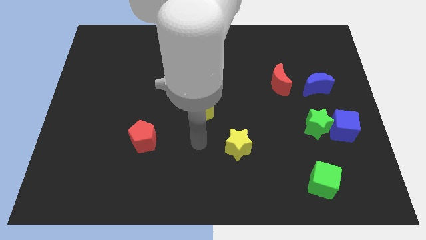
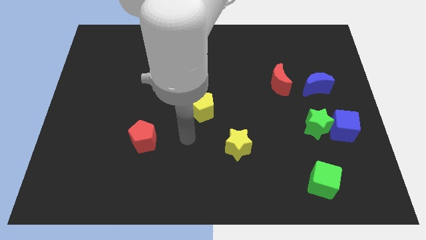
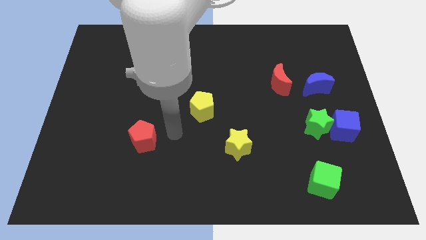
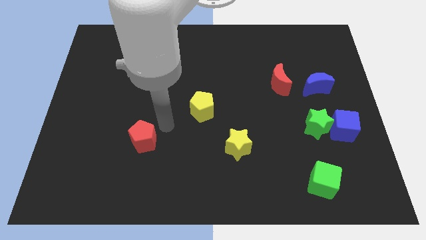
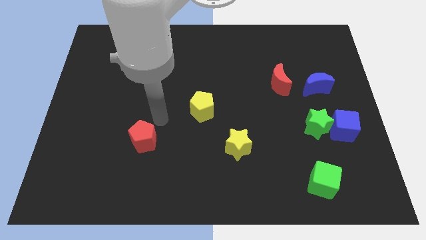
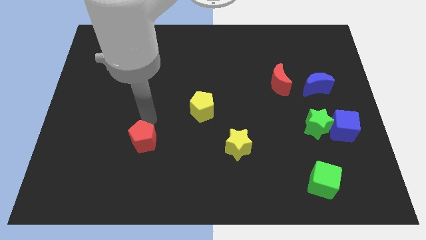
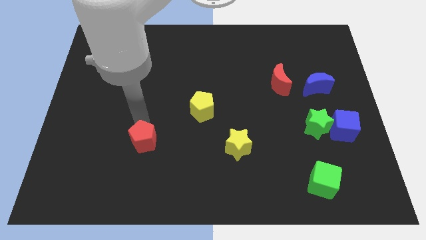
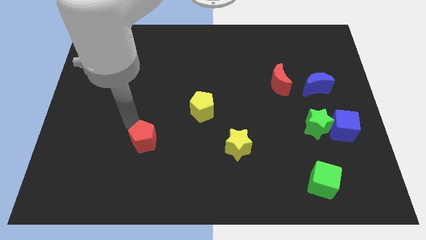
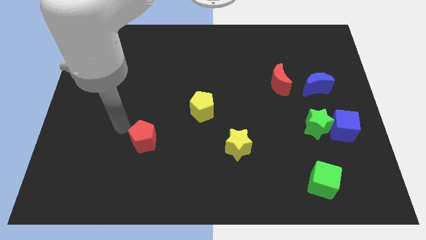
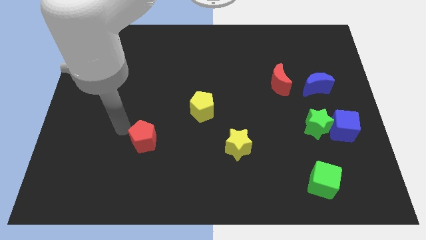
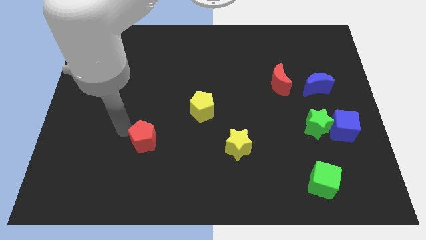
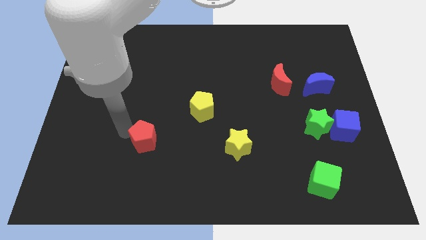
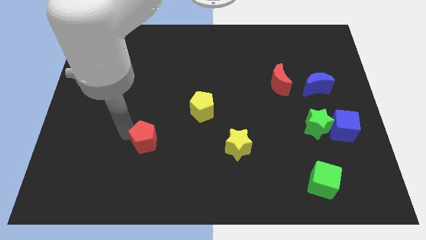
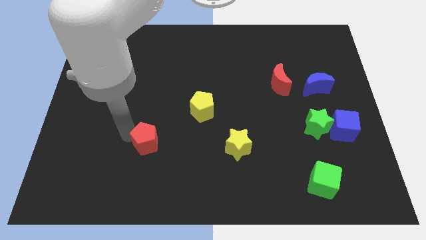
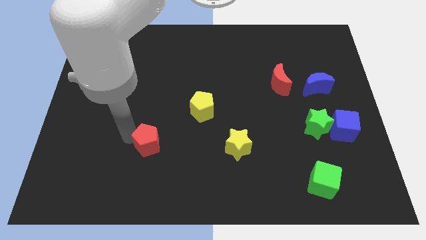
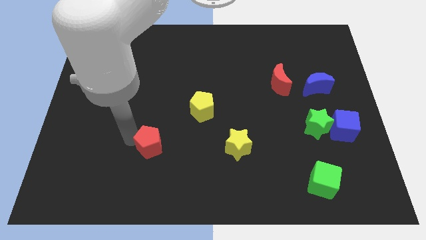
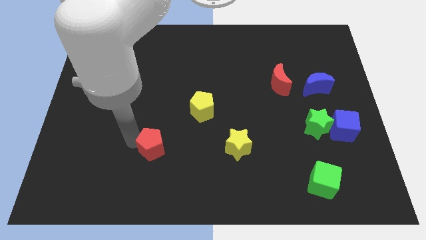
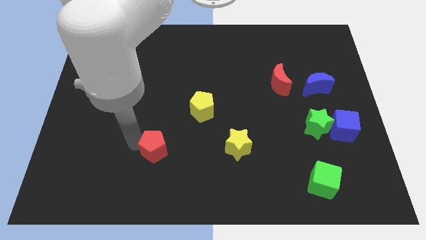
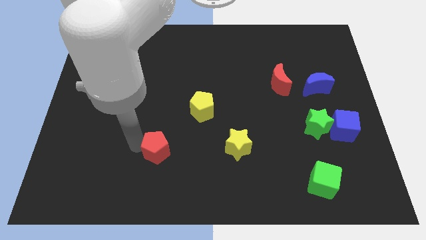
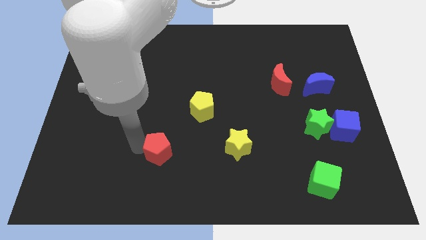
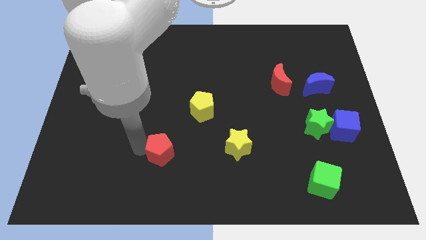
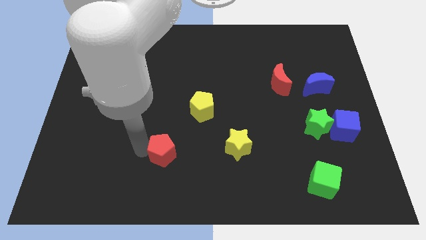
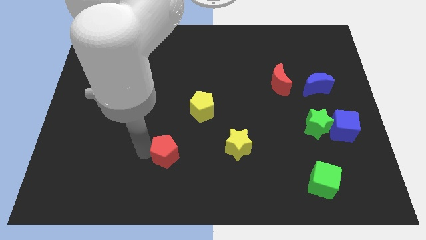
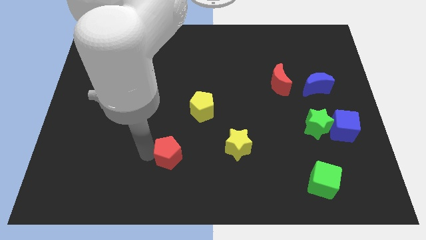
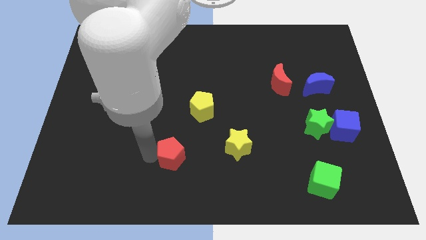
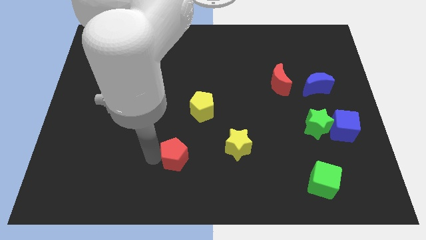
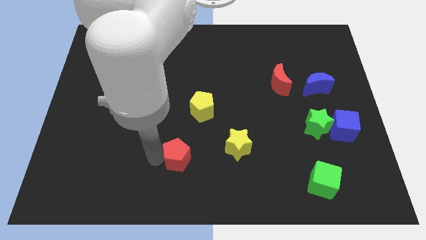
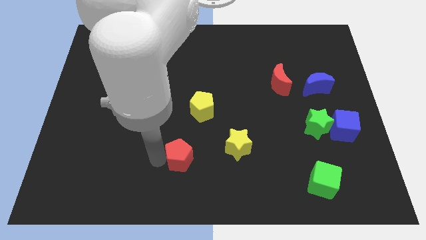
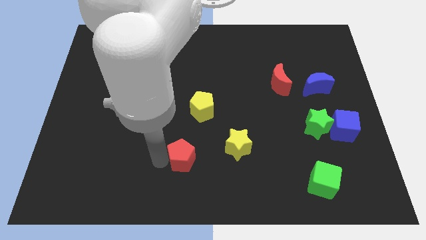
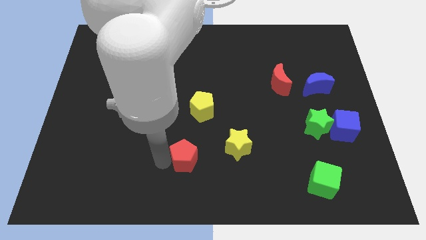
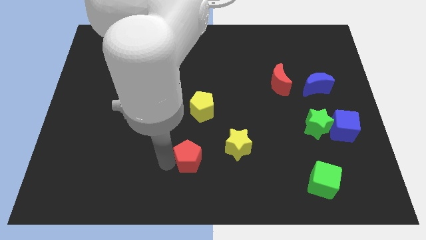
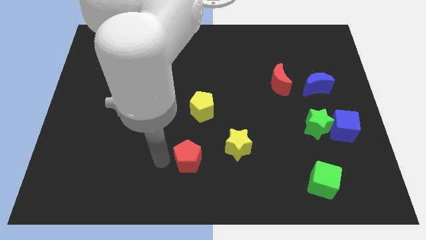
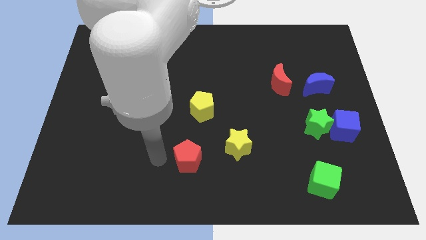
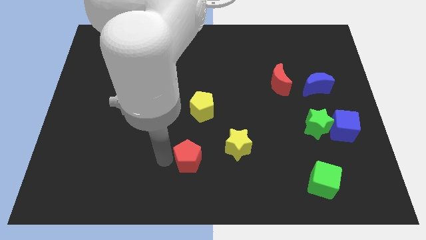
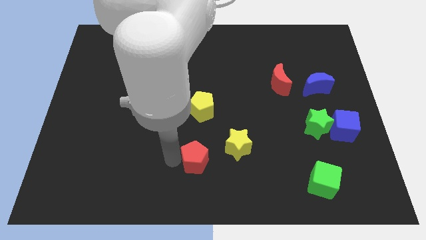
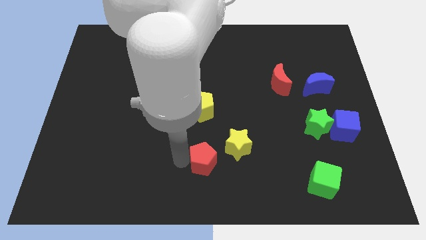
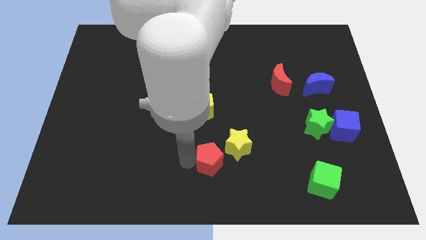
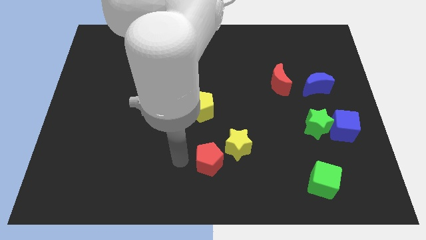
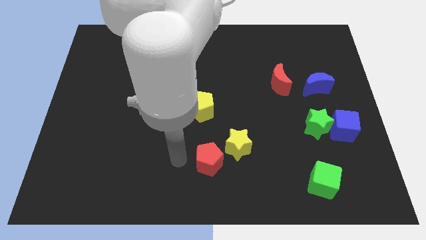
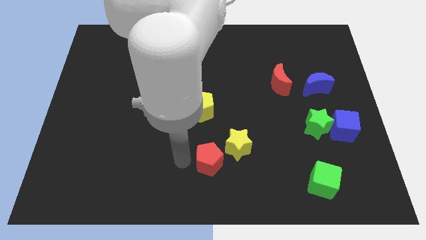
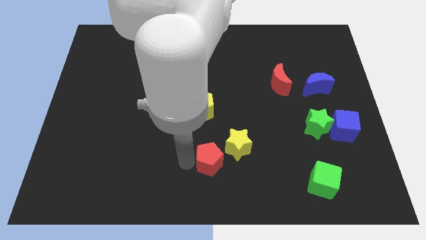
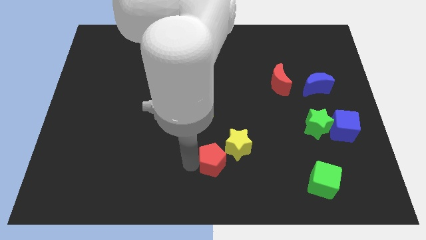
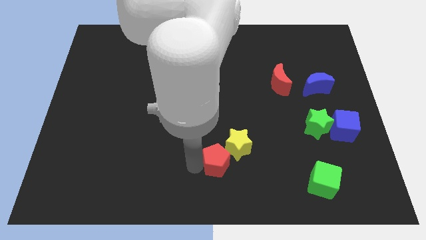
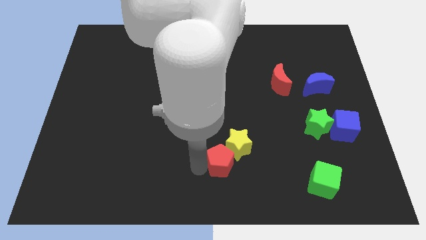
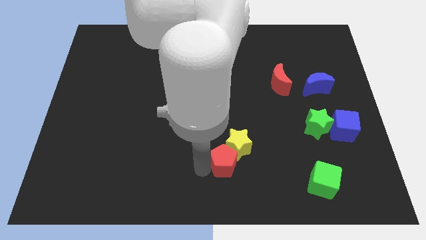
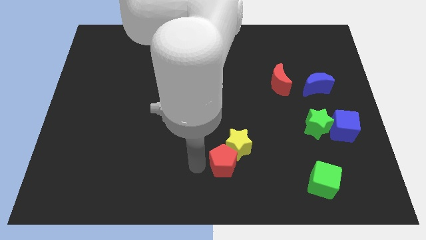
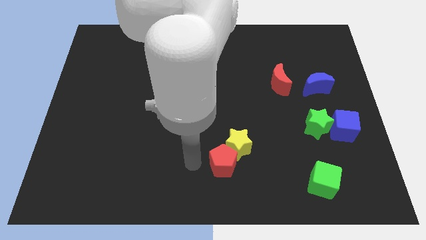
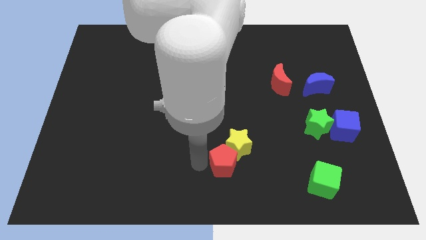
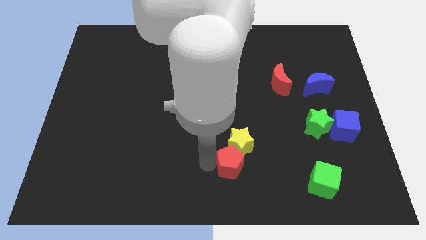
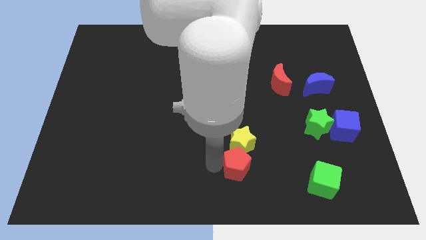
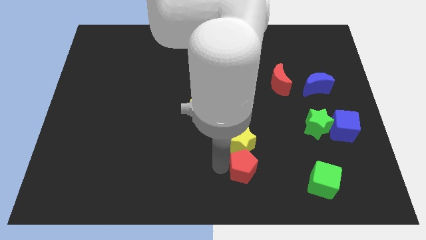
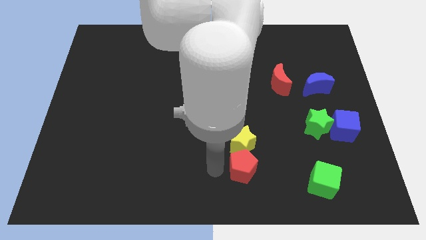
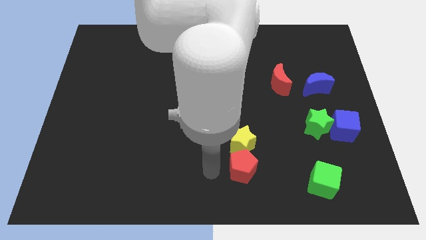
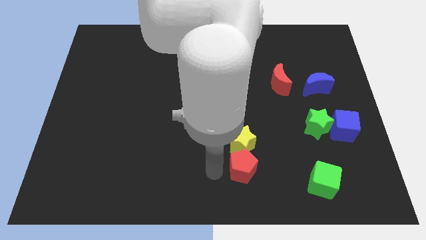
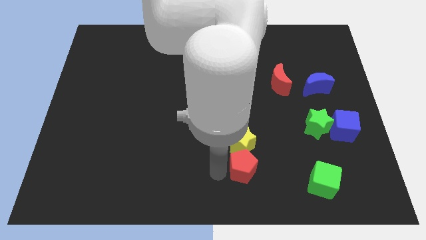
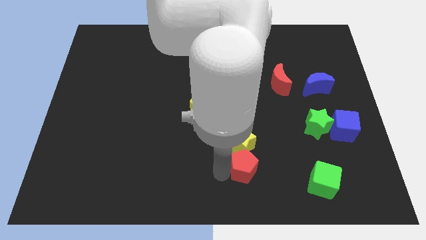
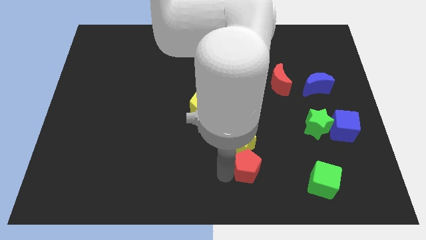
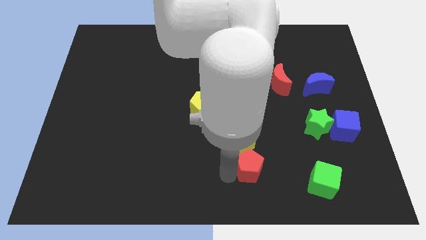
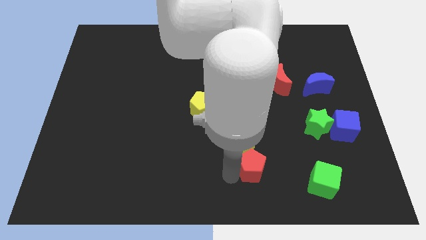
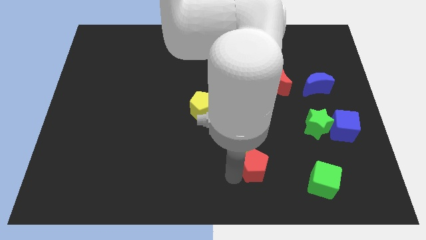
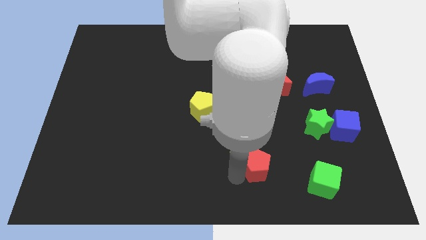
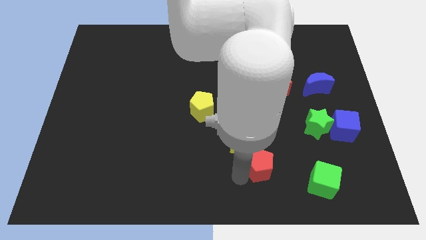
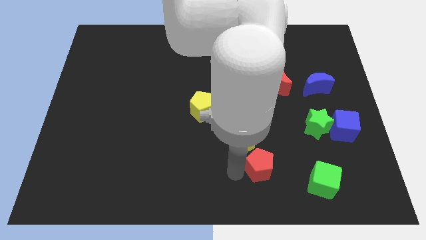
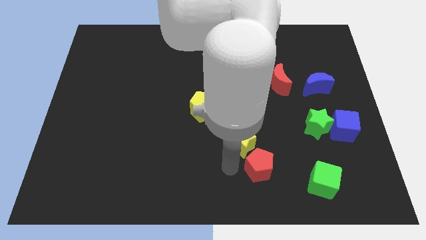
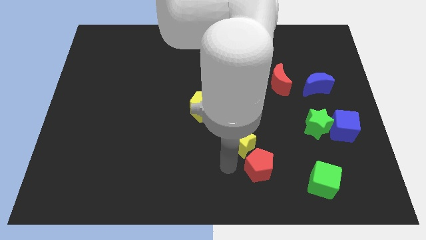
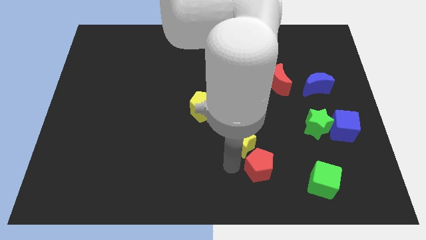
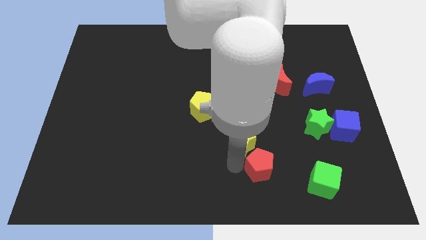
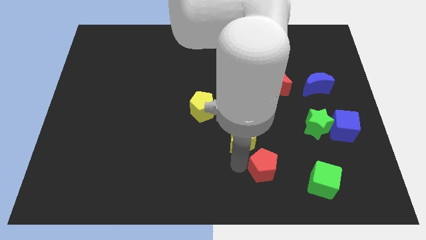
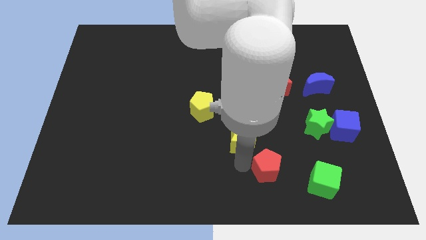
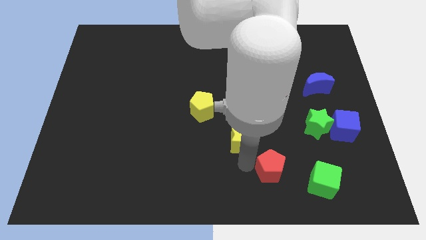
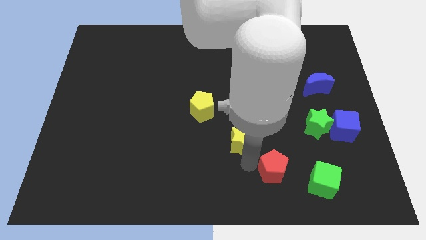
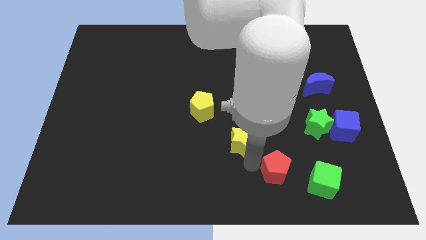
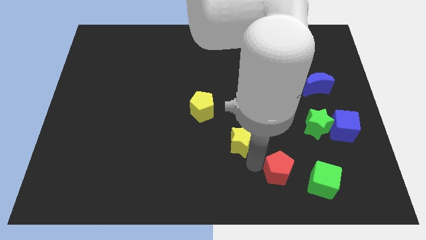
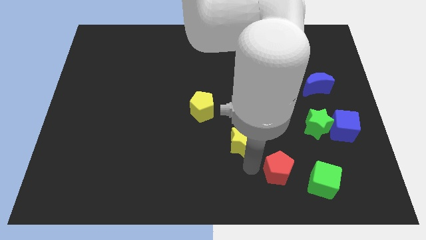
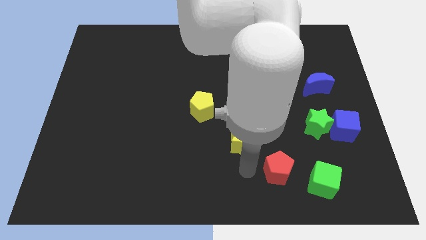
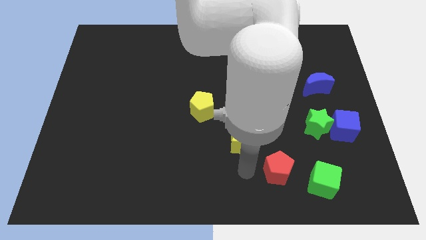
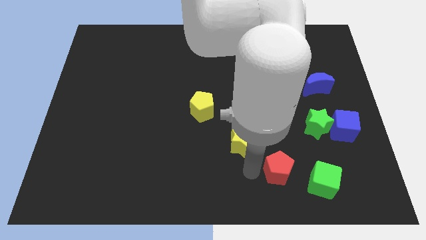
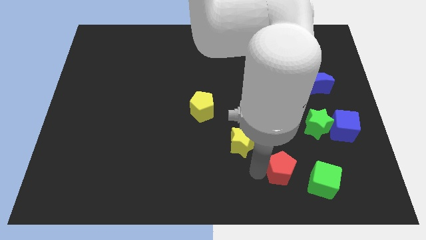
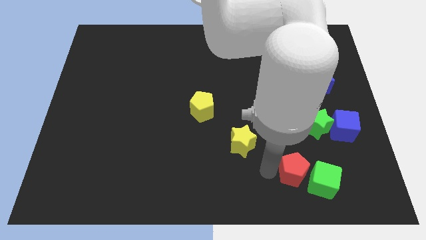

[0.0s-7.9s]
put the red pentagon towards the green cube

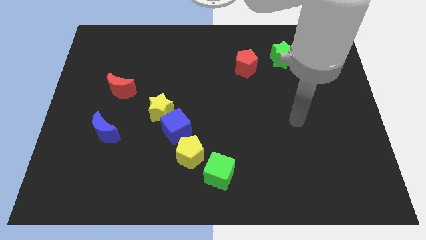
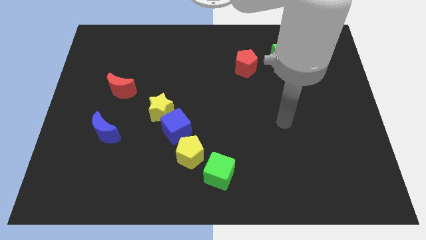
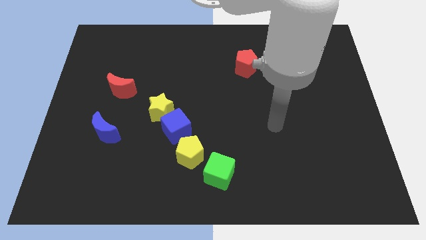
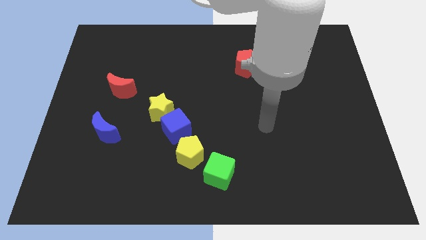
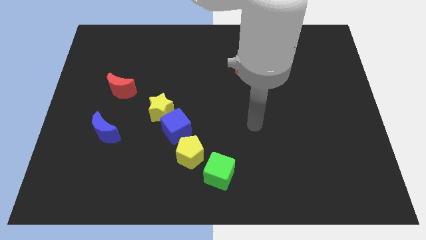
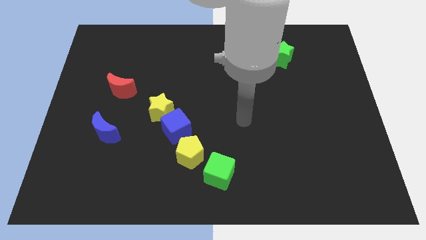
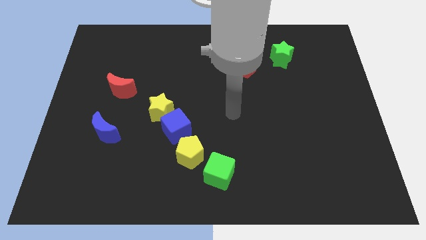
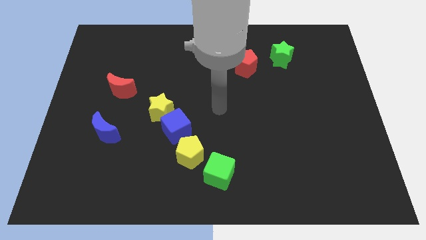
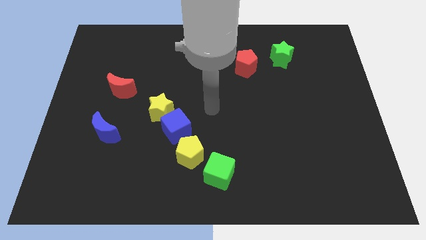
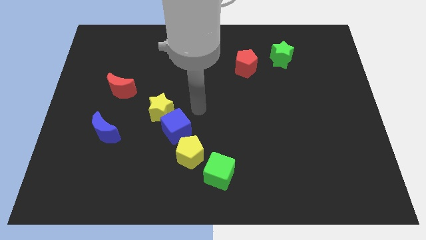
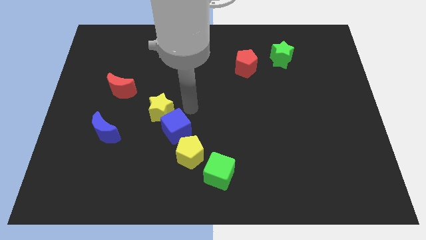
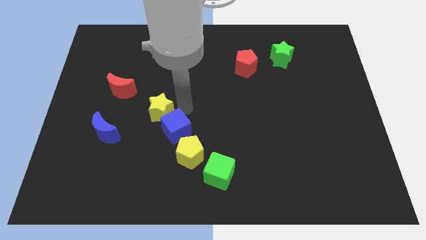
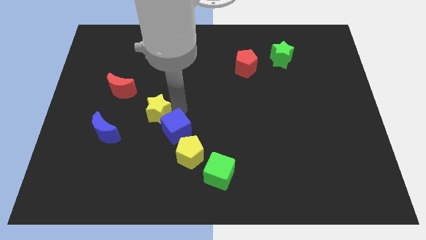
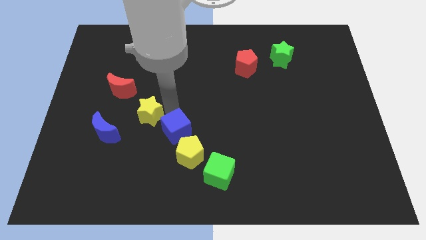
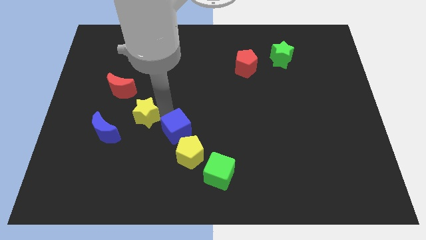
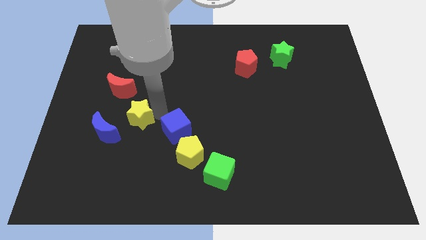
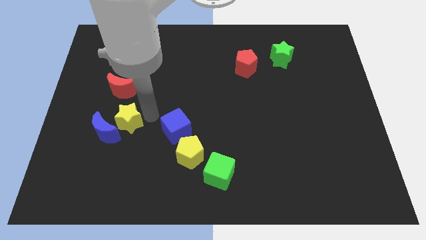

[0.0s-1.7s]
push the yellow star towards the blue moon
